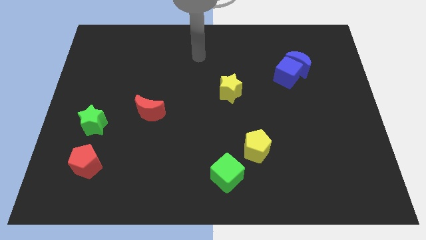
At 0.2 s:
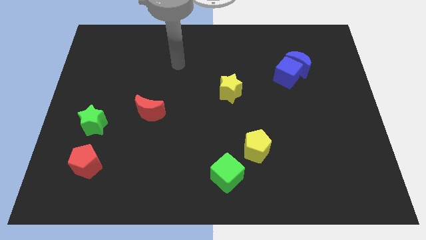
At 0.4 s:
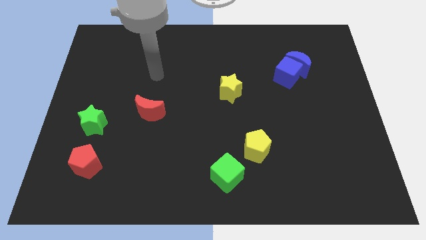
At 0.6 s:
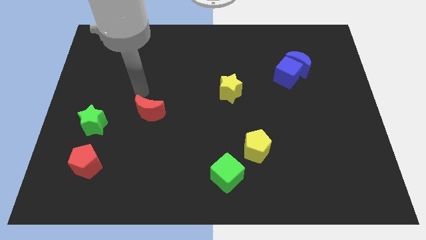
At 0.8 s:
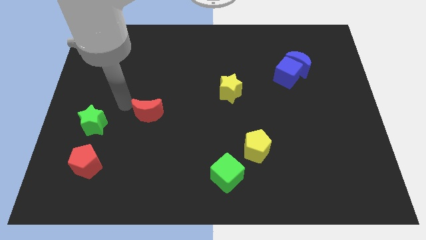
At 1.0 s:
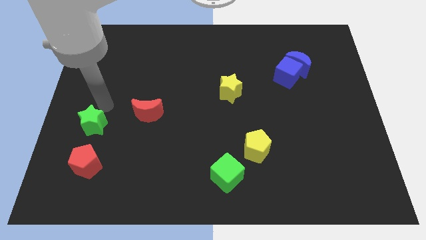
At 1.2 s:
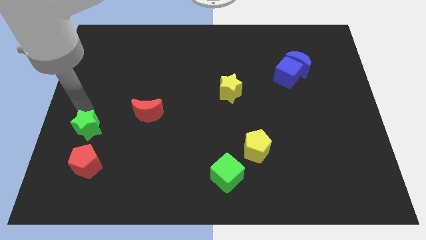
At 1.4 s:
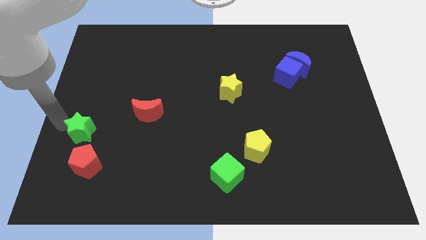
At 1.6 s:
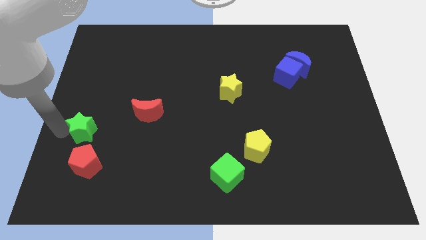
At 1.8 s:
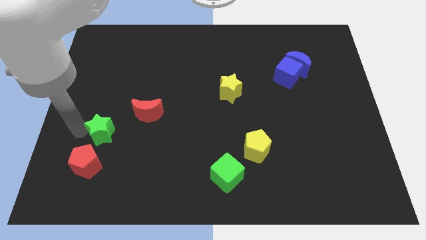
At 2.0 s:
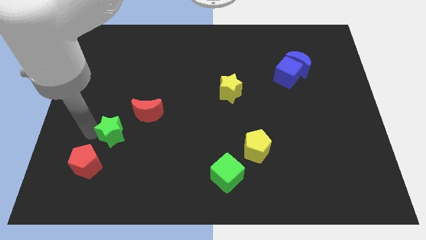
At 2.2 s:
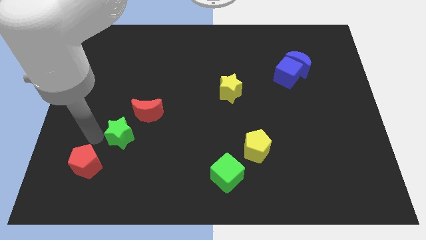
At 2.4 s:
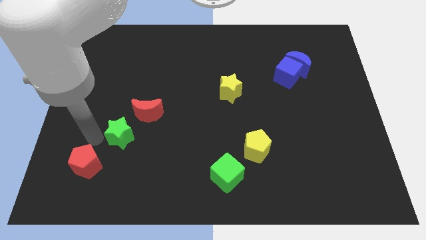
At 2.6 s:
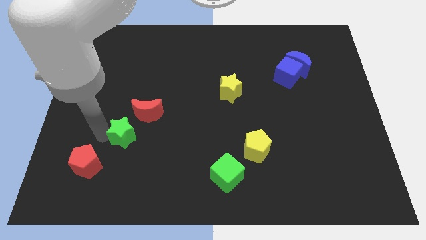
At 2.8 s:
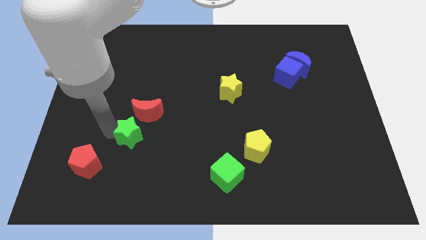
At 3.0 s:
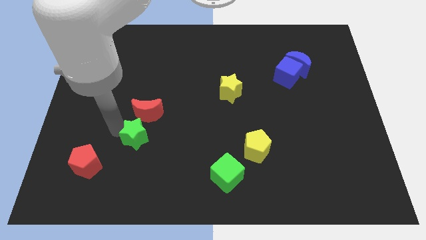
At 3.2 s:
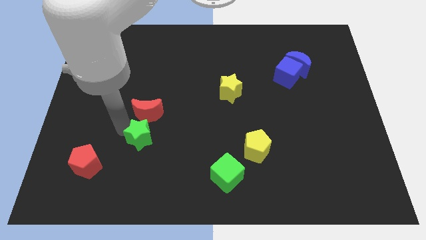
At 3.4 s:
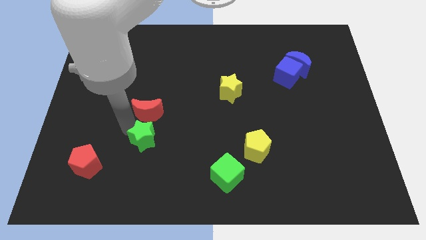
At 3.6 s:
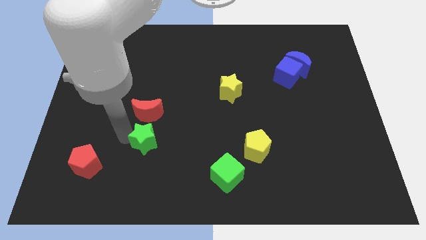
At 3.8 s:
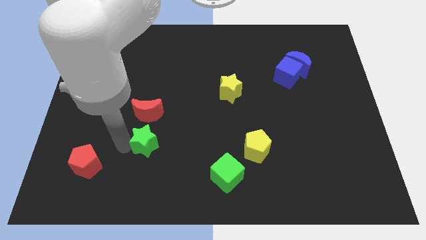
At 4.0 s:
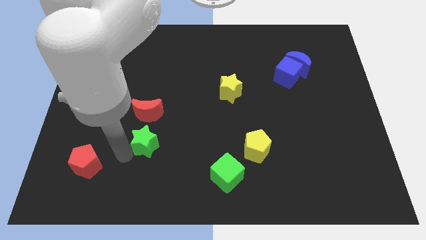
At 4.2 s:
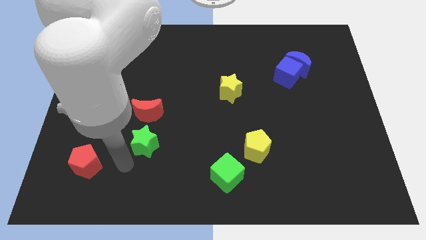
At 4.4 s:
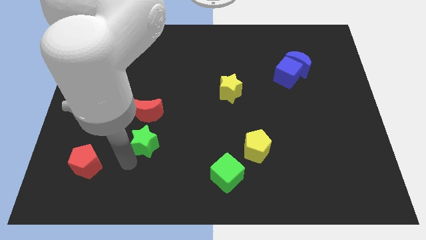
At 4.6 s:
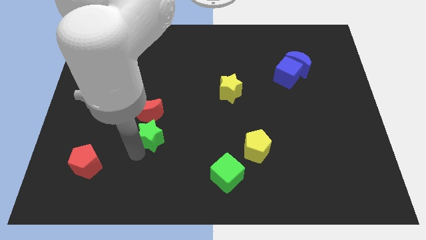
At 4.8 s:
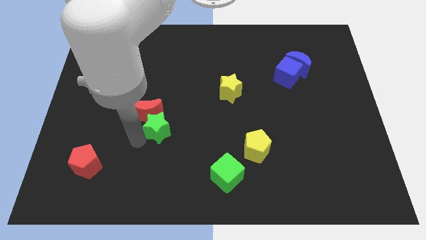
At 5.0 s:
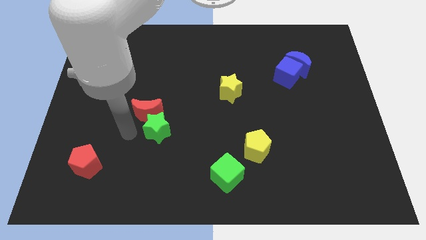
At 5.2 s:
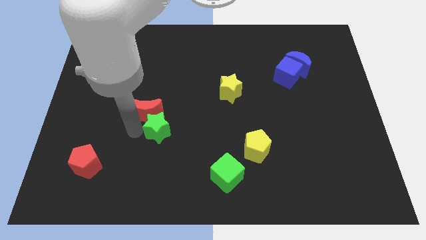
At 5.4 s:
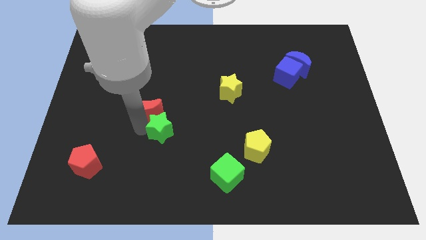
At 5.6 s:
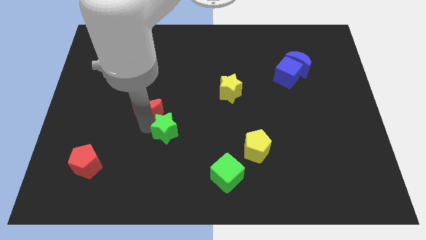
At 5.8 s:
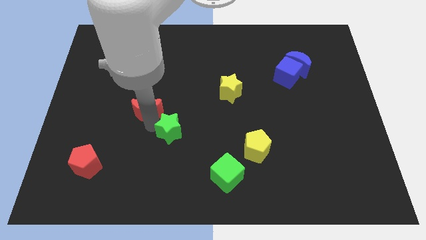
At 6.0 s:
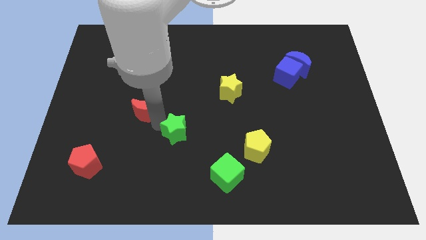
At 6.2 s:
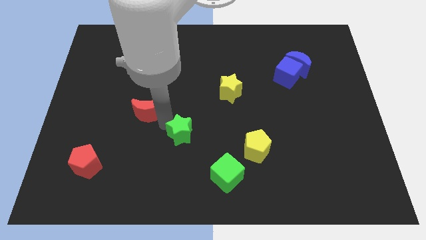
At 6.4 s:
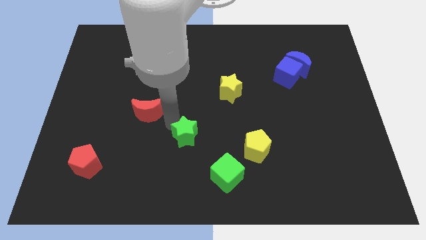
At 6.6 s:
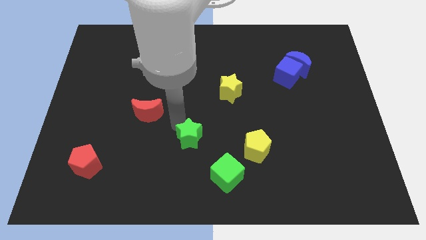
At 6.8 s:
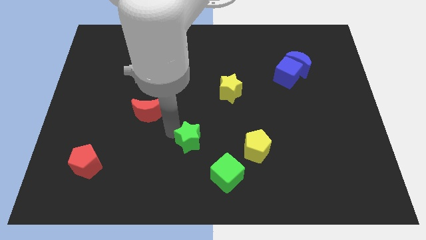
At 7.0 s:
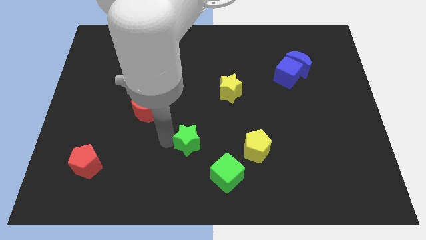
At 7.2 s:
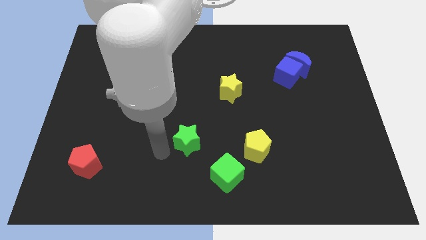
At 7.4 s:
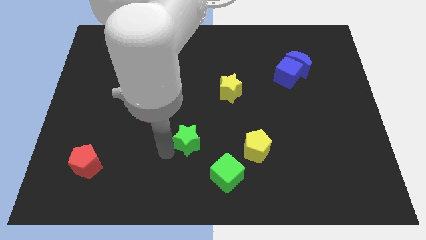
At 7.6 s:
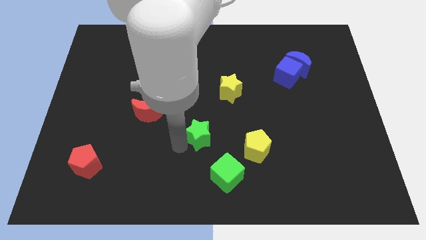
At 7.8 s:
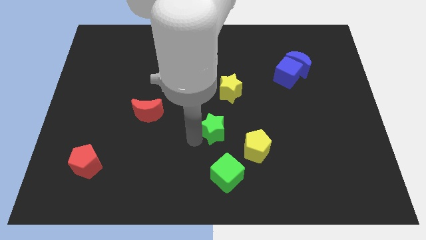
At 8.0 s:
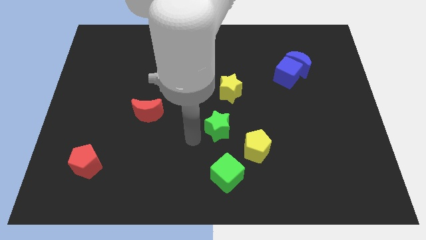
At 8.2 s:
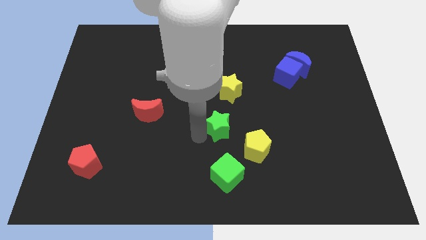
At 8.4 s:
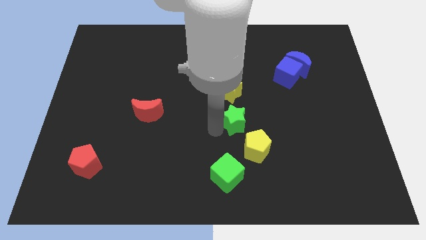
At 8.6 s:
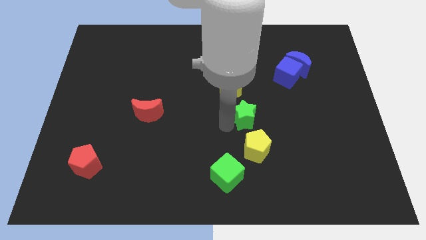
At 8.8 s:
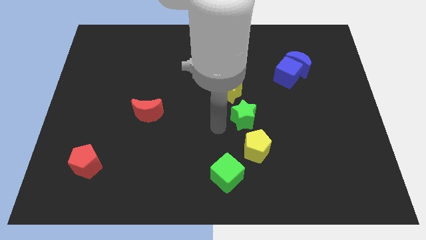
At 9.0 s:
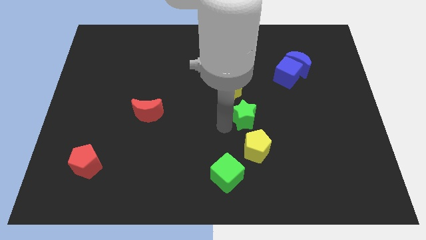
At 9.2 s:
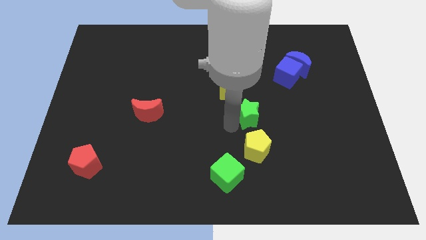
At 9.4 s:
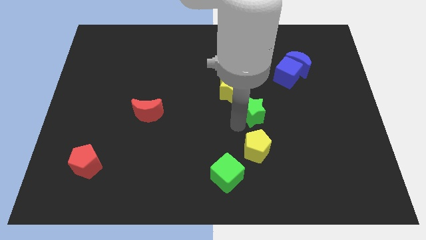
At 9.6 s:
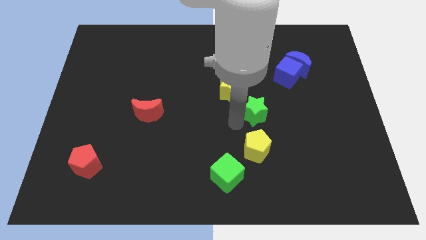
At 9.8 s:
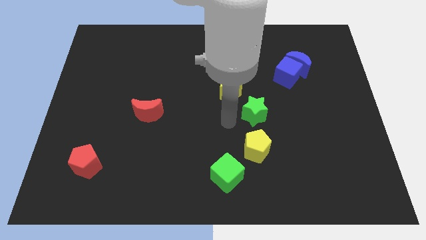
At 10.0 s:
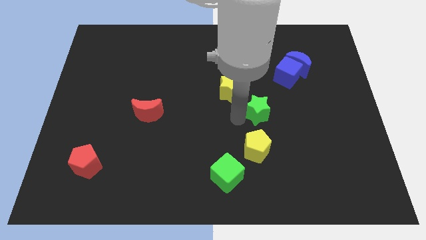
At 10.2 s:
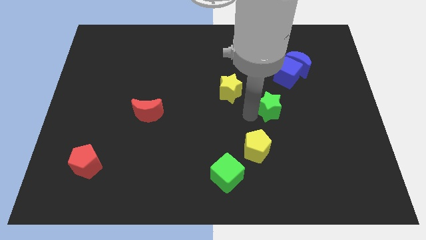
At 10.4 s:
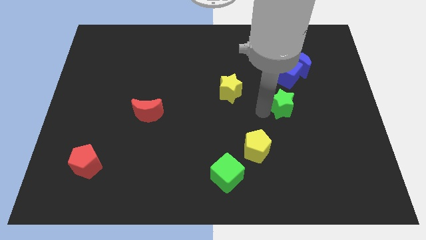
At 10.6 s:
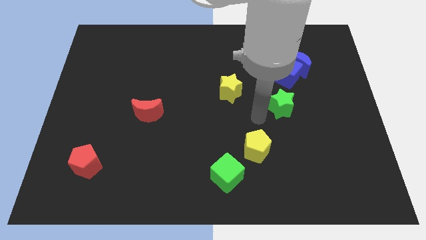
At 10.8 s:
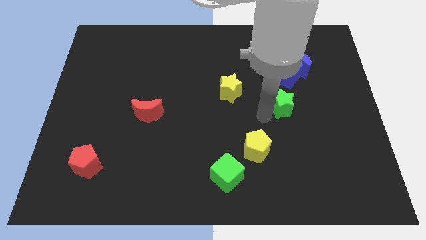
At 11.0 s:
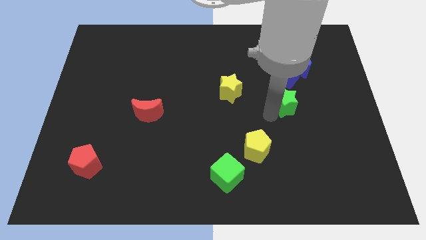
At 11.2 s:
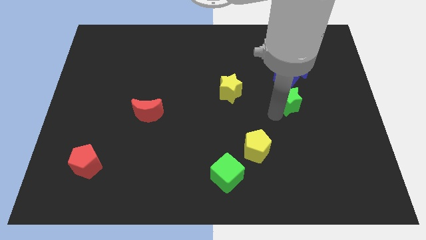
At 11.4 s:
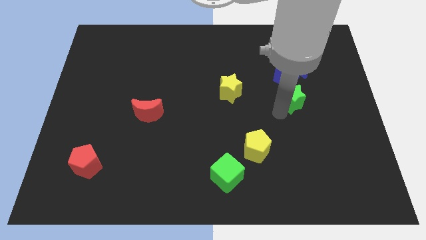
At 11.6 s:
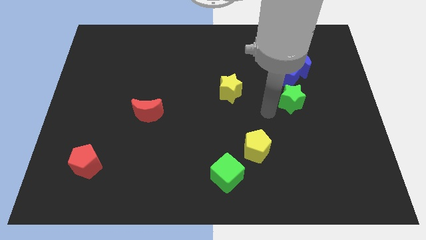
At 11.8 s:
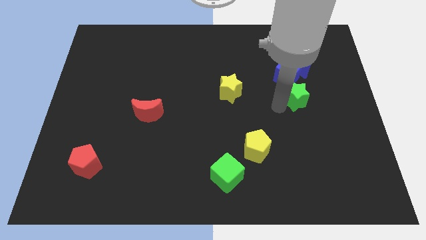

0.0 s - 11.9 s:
push the green star to the bottom right side of the blue cube

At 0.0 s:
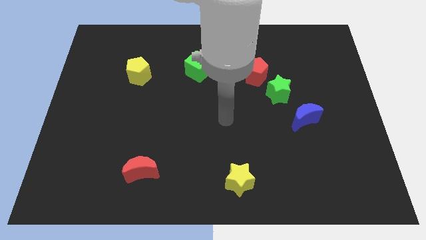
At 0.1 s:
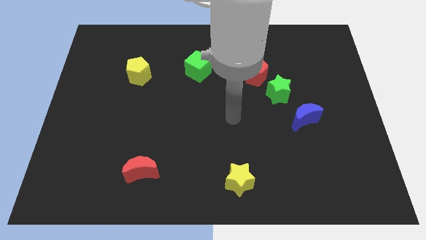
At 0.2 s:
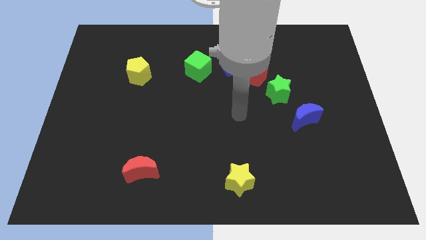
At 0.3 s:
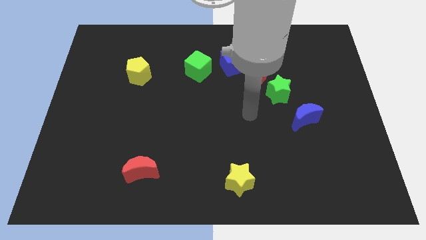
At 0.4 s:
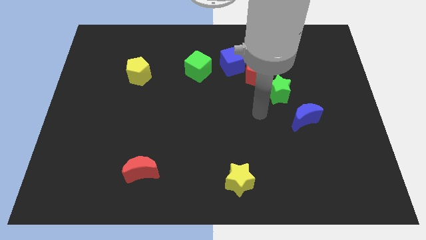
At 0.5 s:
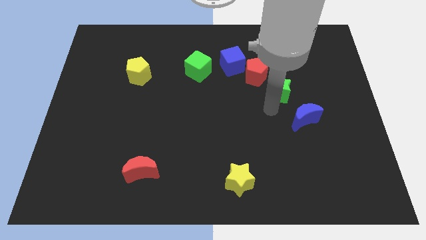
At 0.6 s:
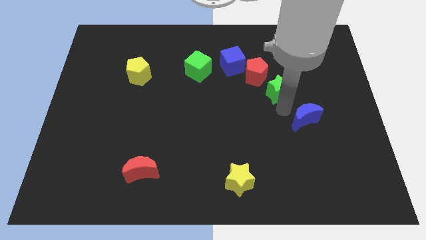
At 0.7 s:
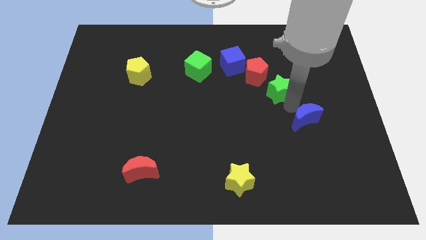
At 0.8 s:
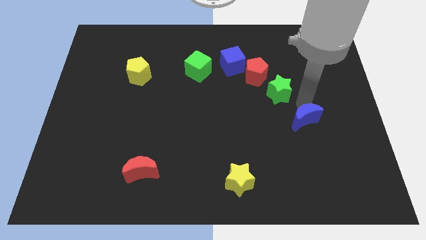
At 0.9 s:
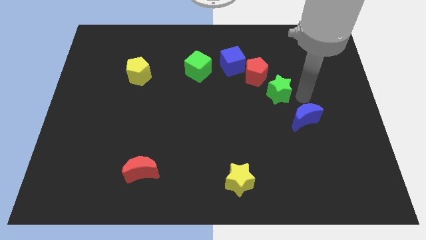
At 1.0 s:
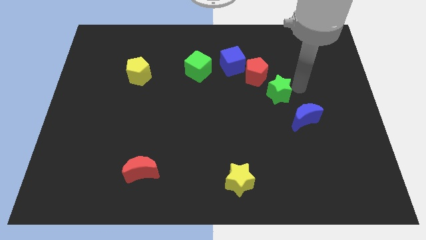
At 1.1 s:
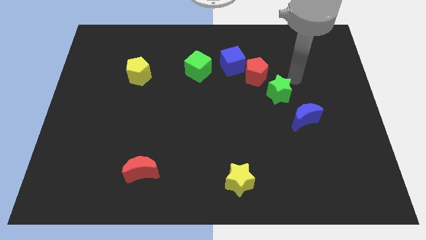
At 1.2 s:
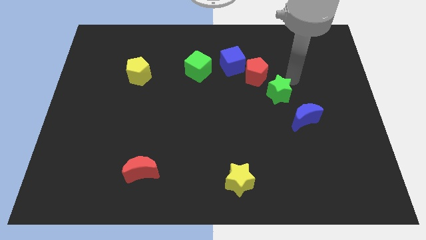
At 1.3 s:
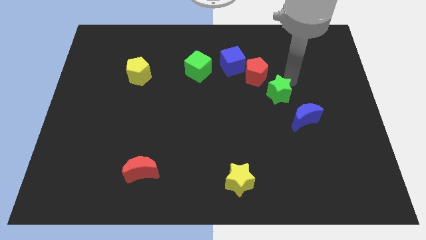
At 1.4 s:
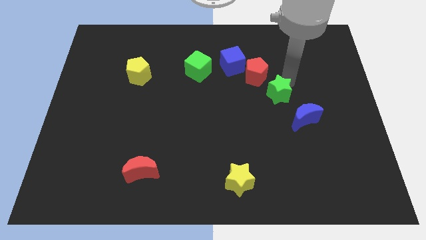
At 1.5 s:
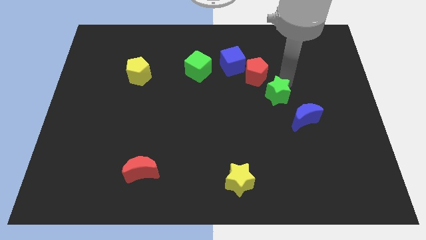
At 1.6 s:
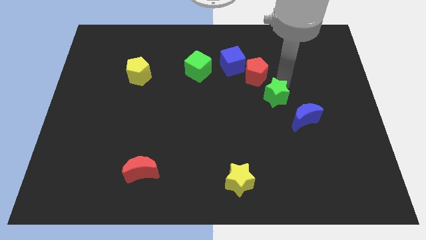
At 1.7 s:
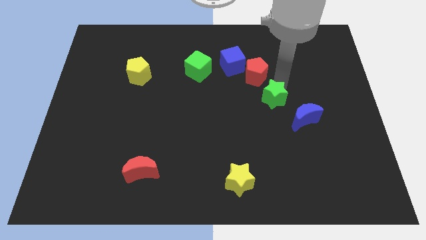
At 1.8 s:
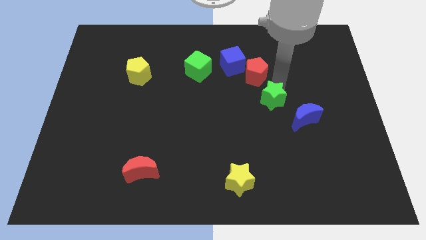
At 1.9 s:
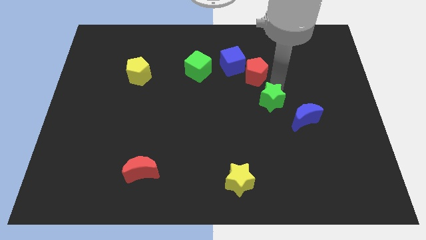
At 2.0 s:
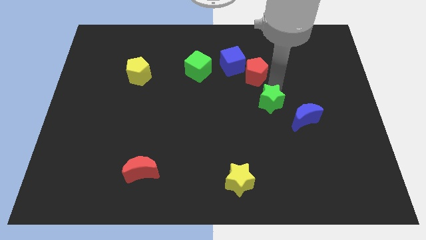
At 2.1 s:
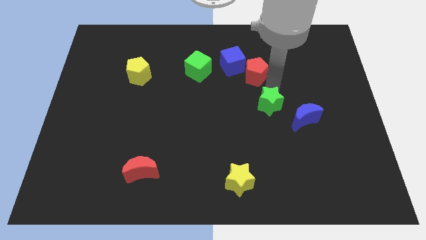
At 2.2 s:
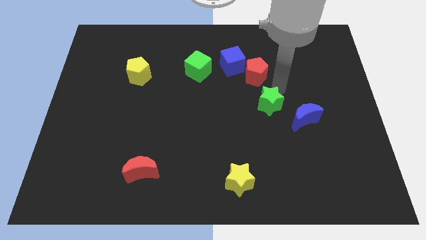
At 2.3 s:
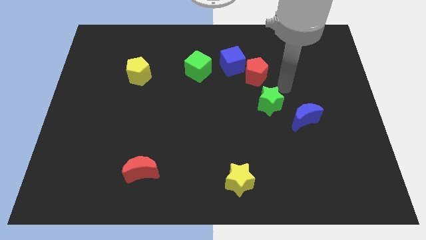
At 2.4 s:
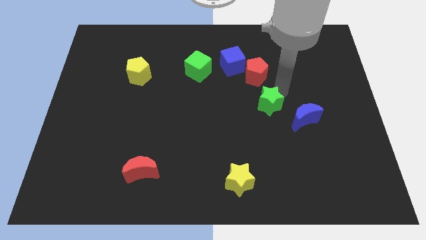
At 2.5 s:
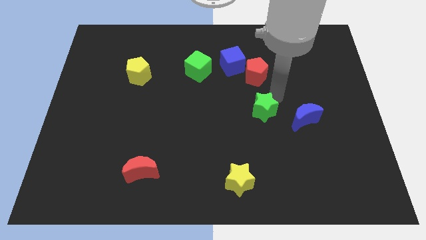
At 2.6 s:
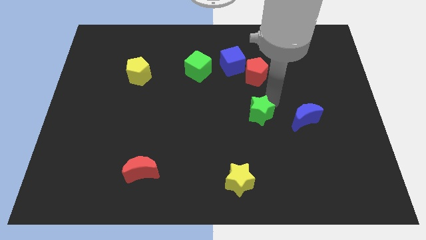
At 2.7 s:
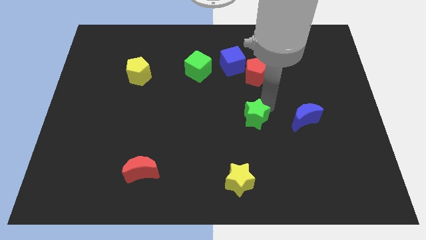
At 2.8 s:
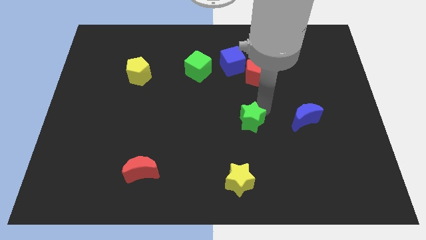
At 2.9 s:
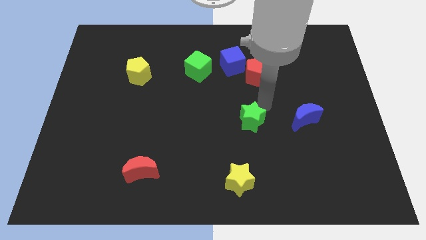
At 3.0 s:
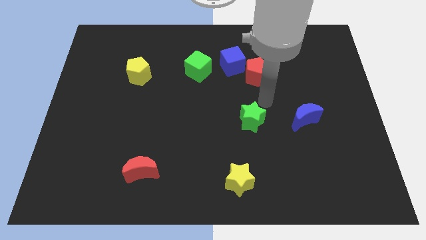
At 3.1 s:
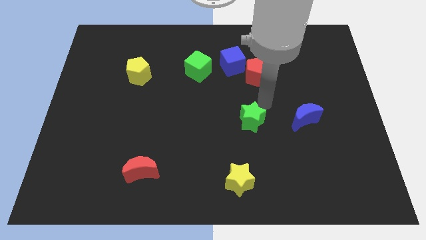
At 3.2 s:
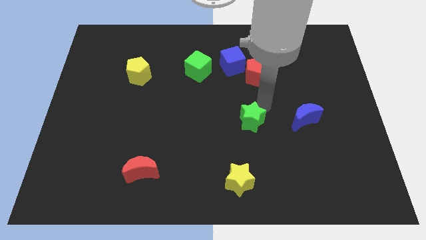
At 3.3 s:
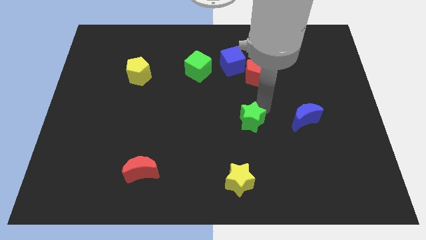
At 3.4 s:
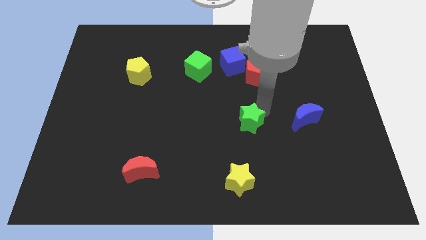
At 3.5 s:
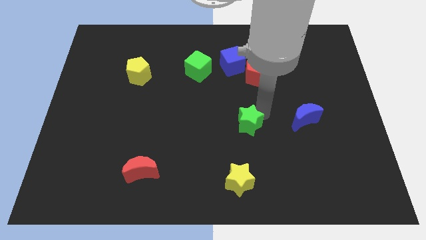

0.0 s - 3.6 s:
move the green star to the top of the yellow star
